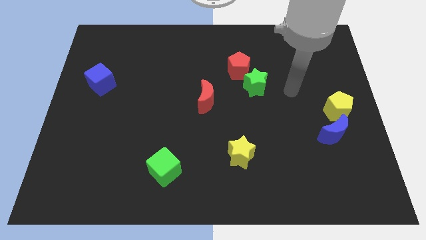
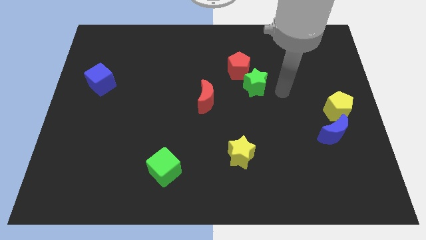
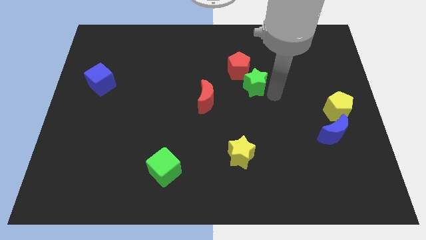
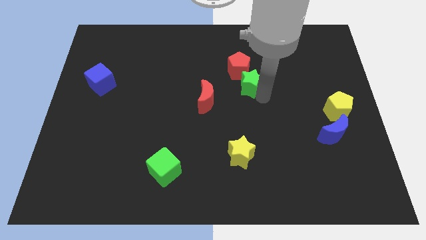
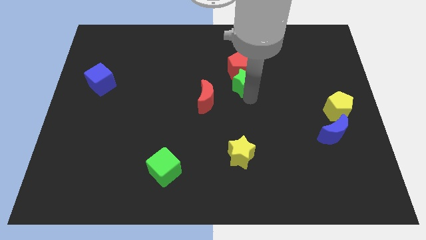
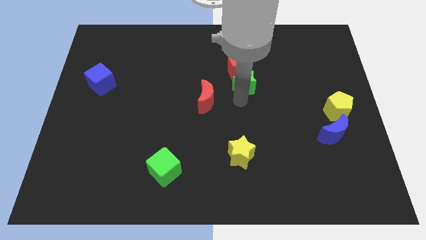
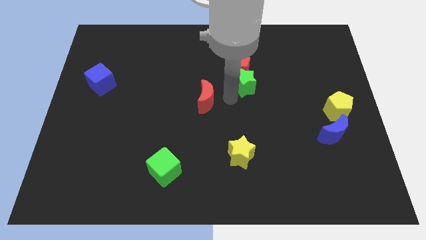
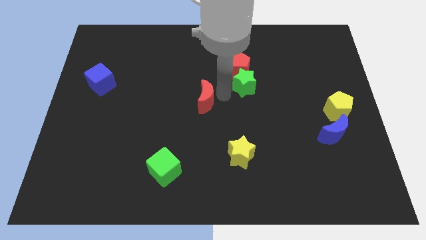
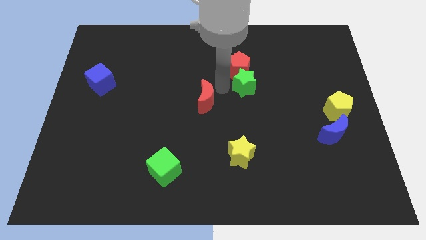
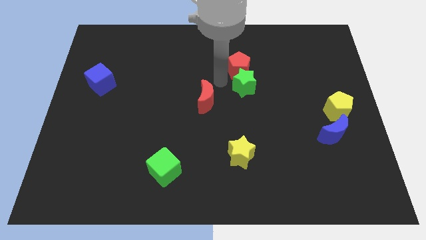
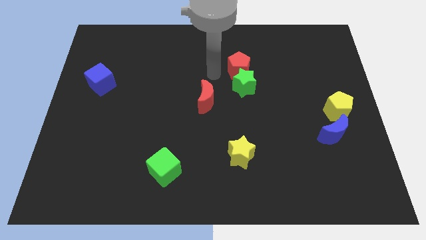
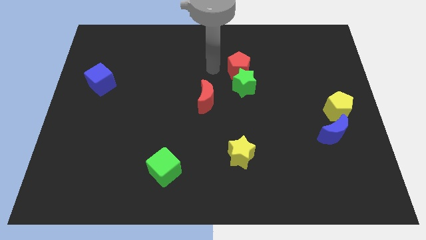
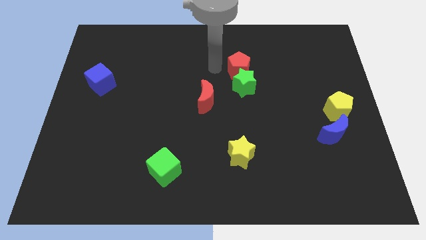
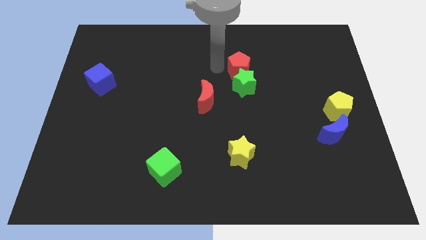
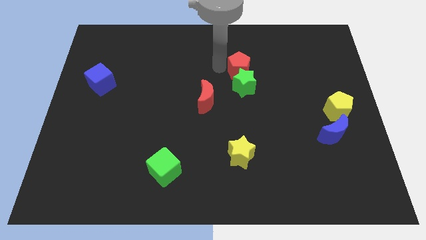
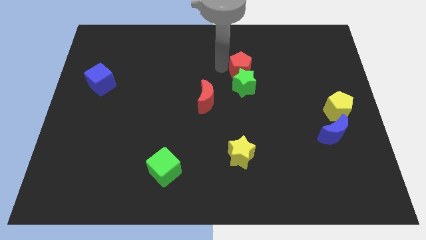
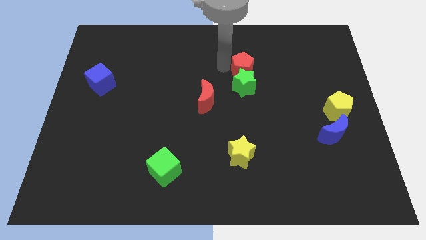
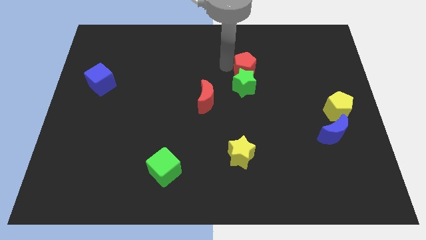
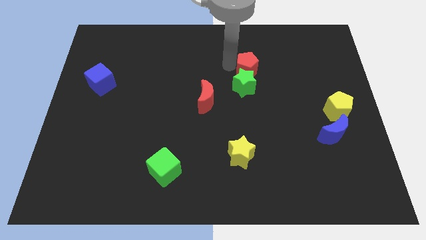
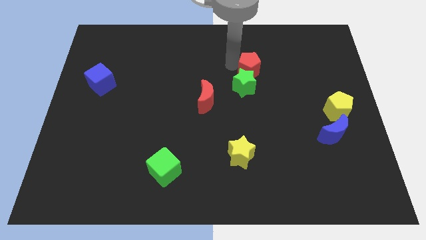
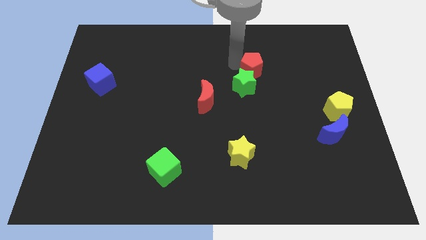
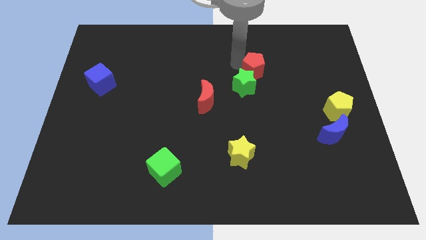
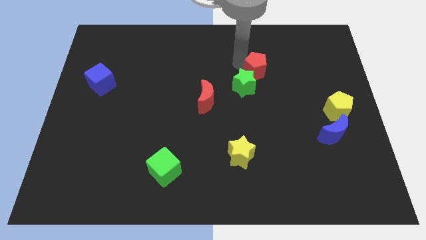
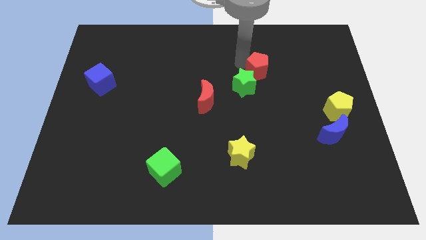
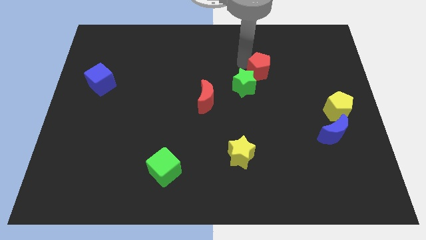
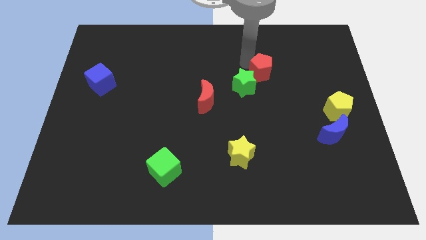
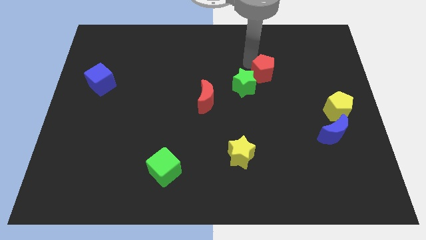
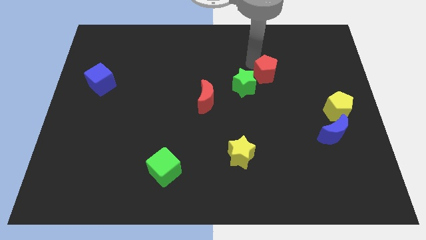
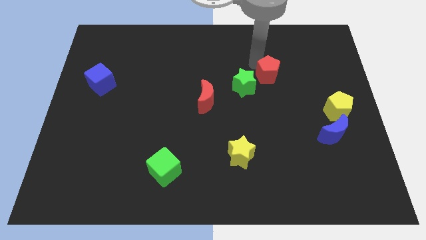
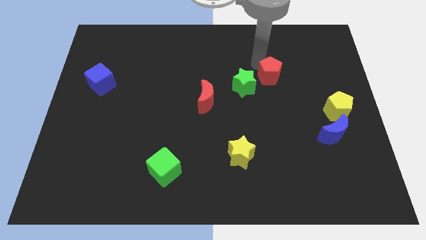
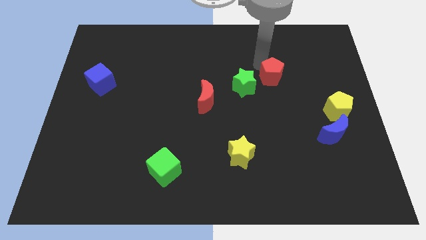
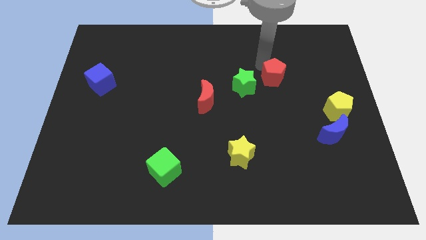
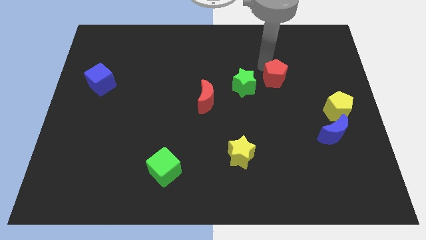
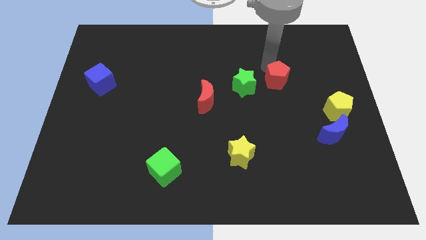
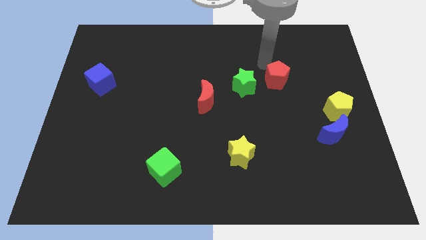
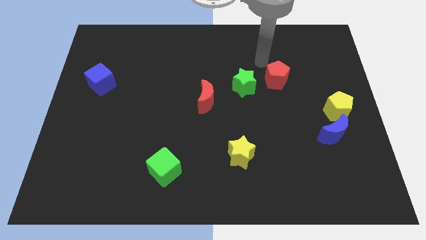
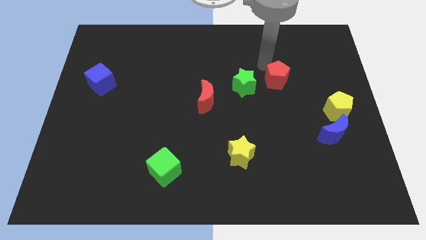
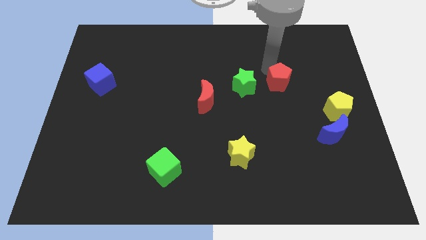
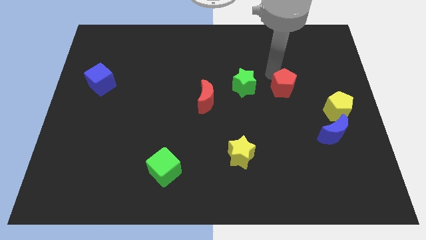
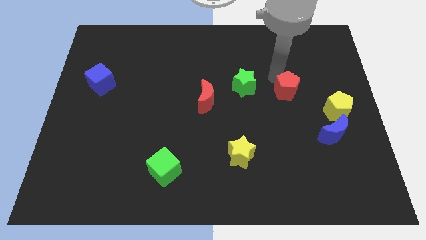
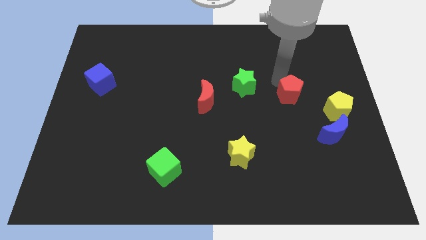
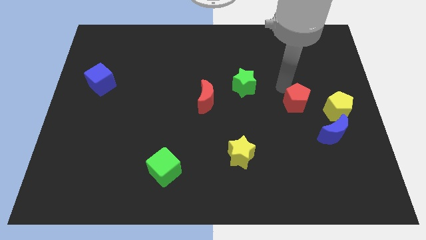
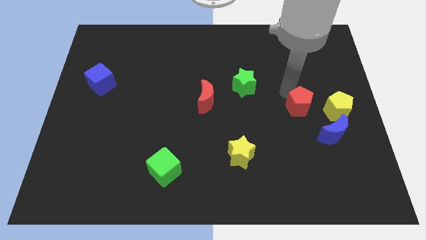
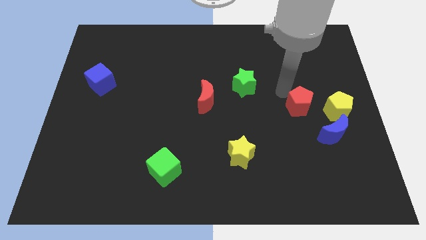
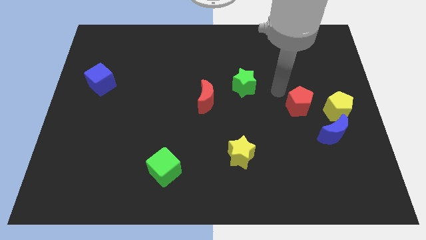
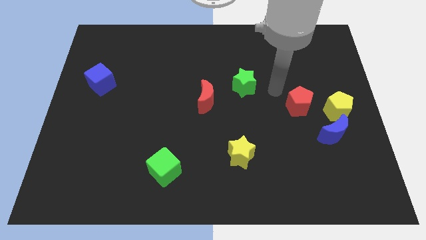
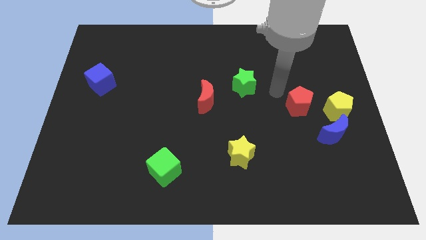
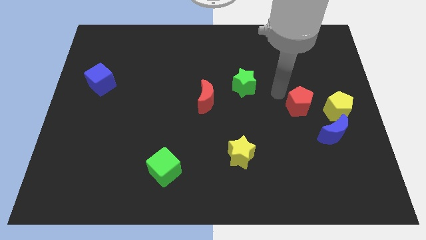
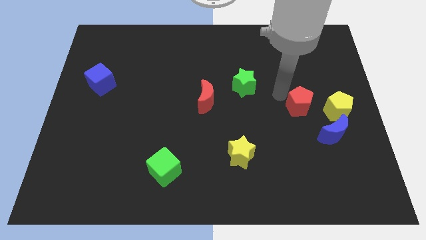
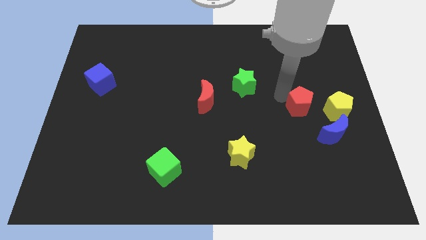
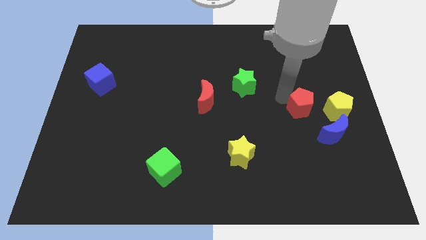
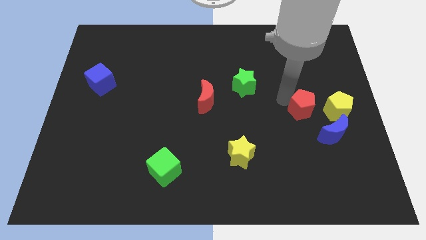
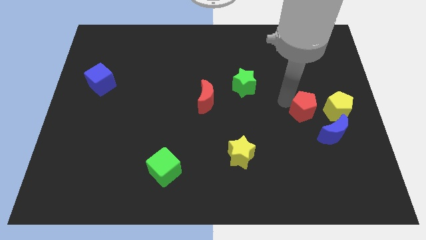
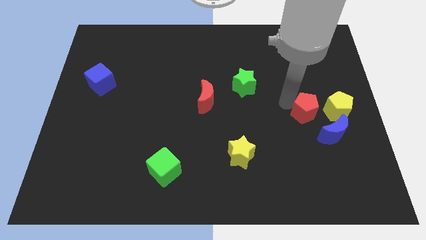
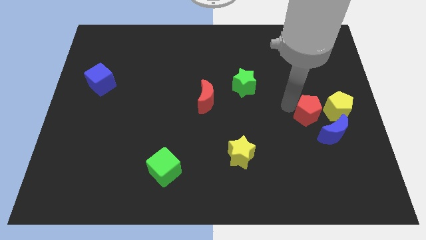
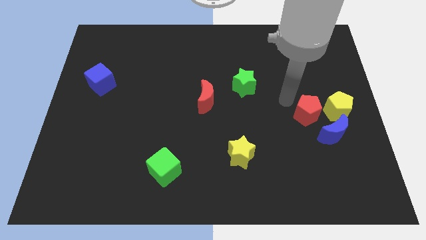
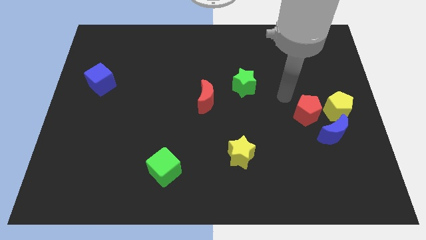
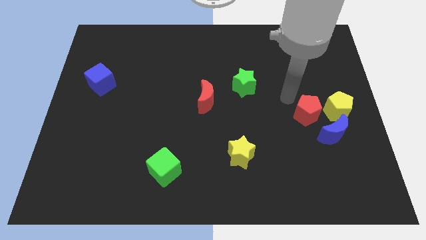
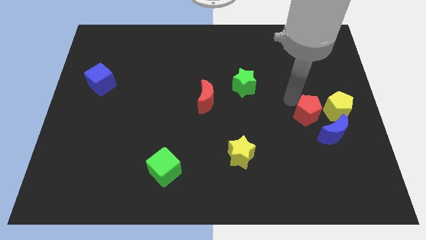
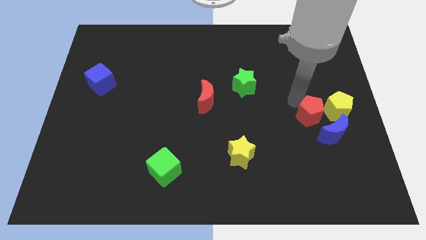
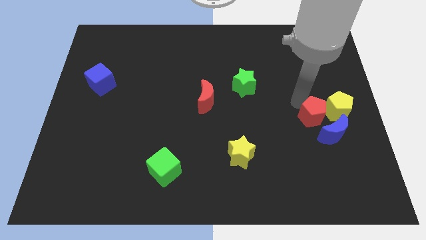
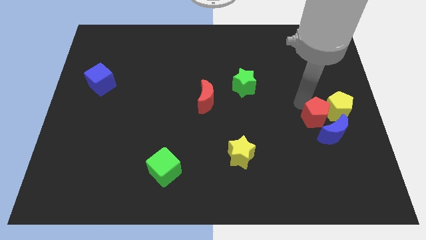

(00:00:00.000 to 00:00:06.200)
move the red pentagon towards the blue moon

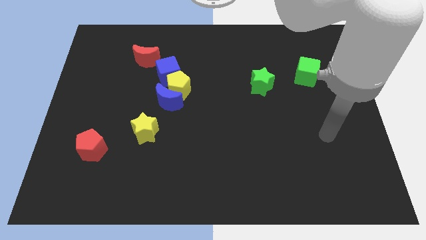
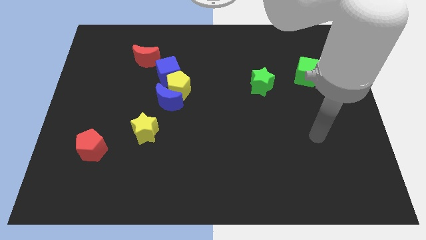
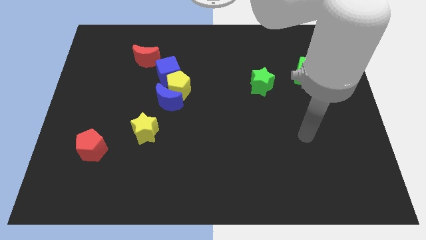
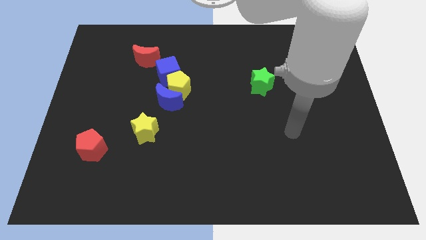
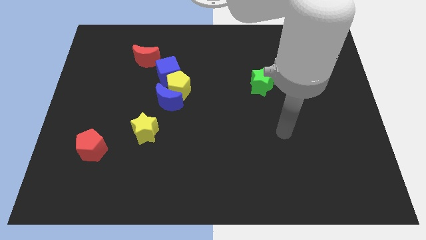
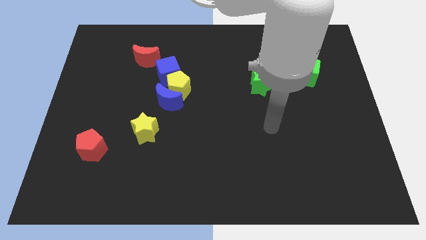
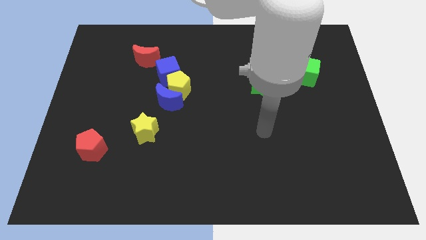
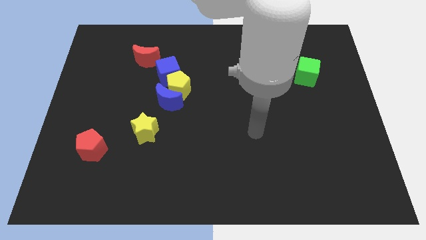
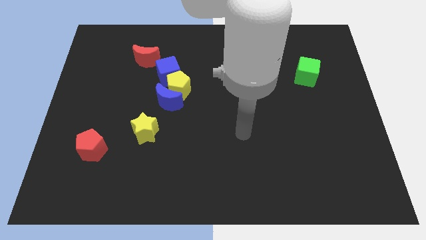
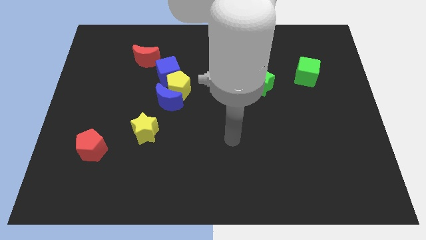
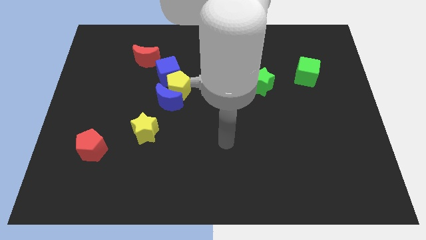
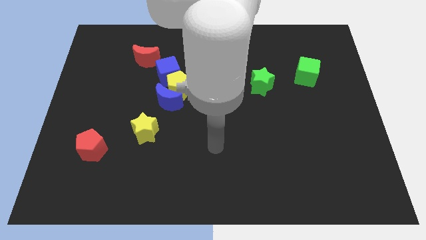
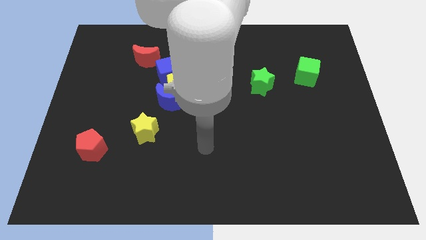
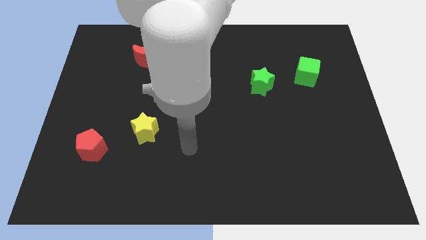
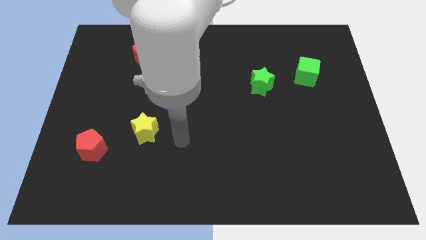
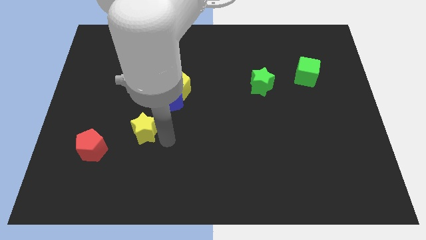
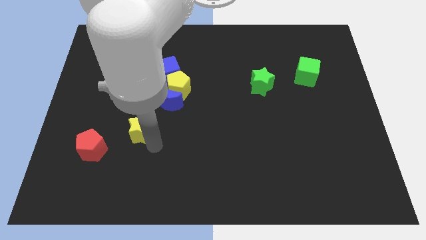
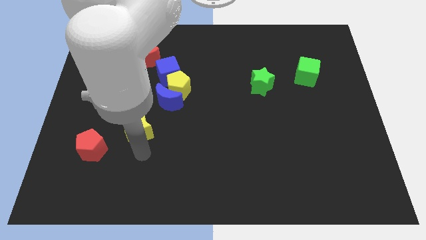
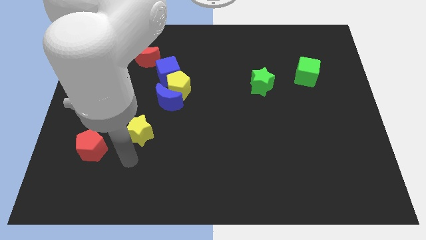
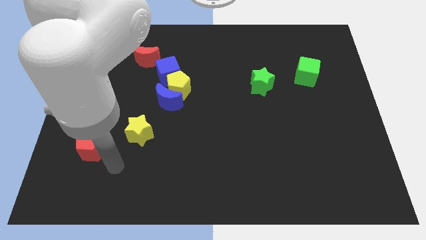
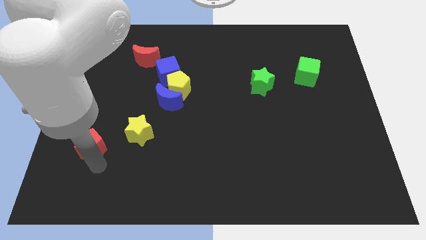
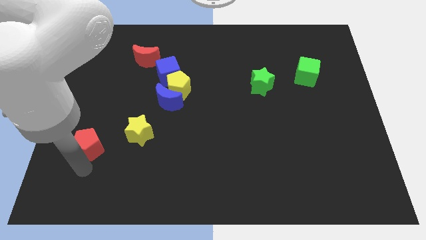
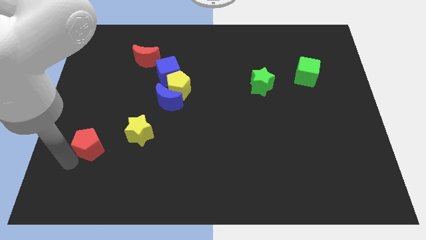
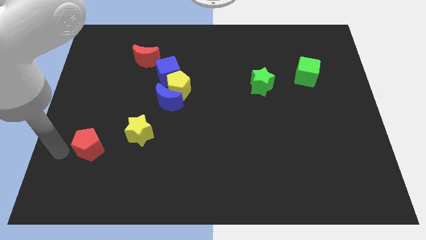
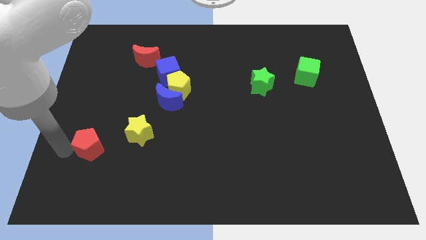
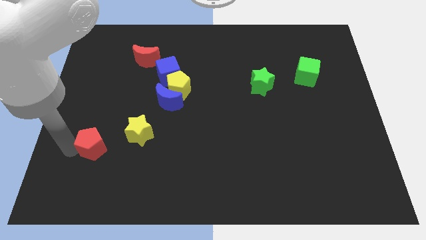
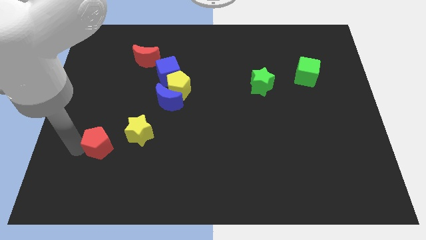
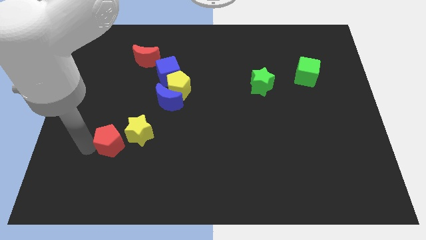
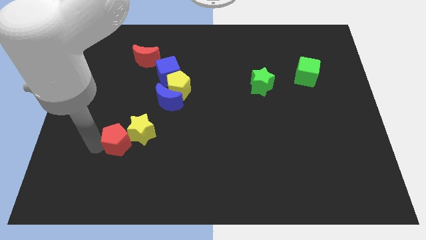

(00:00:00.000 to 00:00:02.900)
slide the red pentagon next to the yellow star
